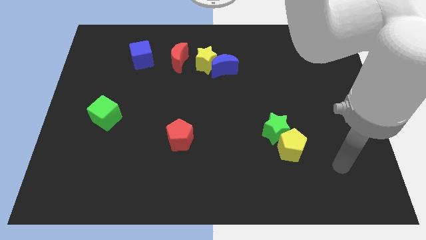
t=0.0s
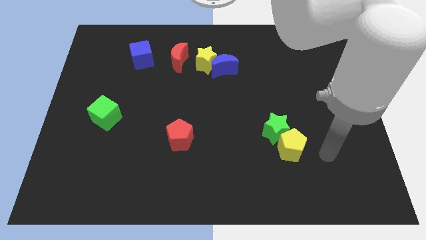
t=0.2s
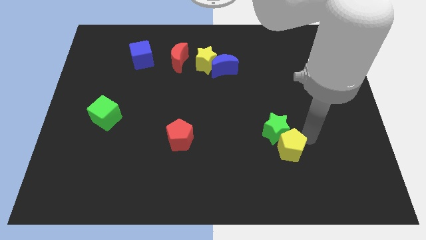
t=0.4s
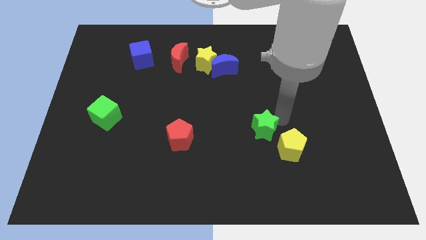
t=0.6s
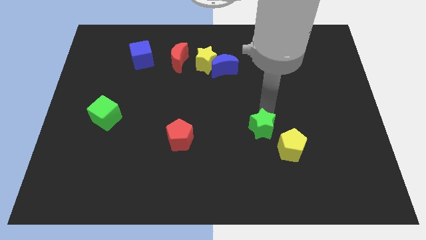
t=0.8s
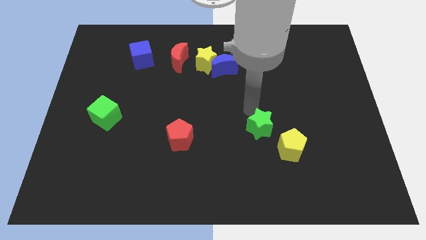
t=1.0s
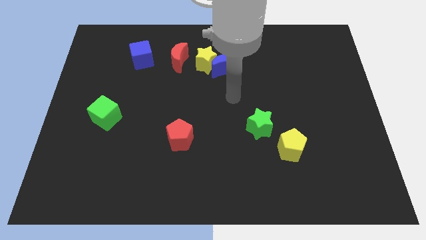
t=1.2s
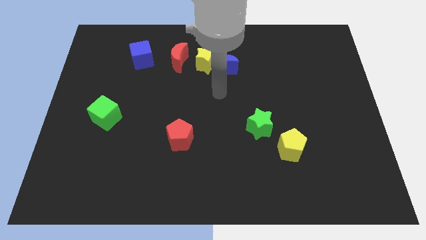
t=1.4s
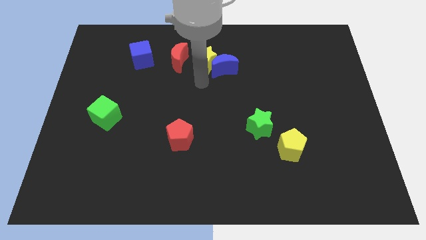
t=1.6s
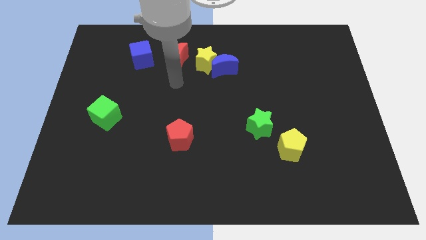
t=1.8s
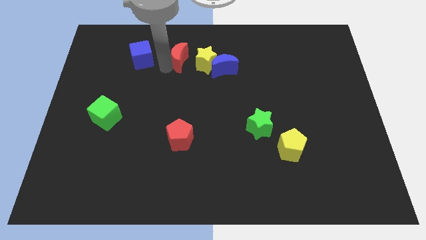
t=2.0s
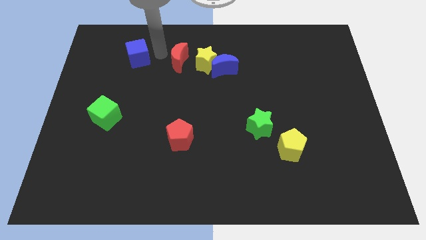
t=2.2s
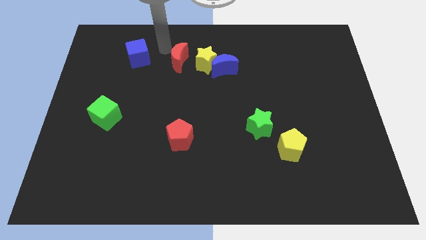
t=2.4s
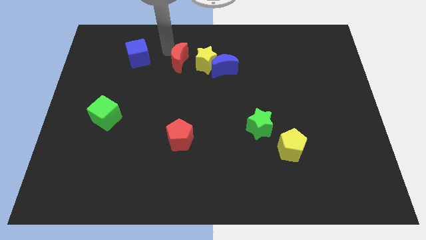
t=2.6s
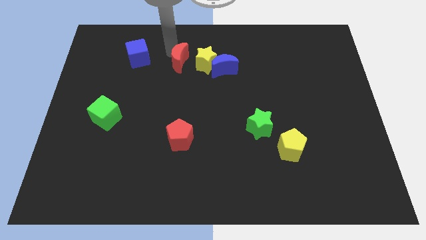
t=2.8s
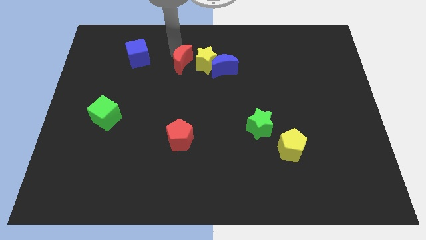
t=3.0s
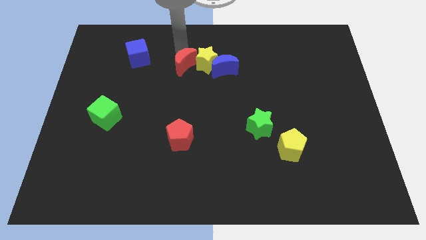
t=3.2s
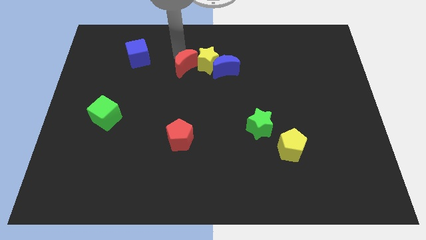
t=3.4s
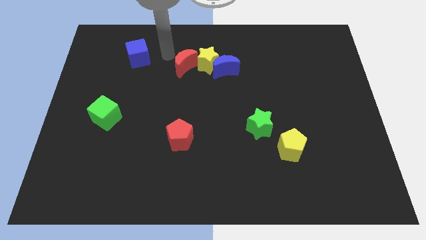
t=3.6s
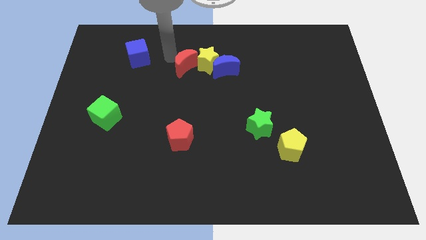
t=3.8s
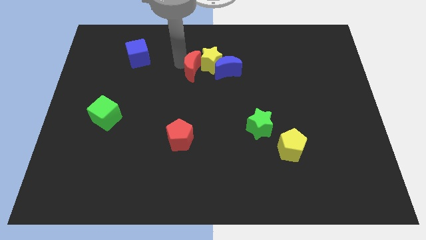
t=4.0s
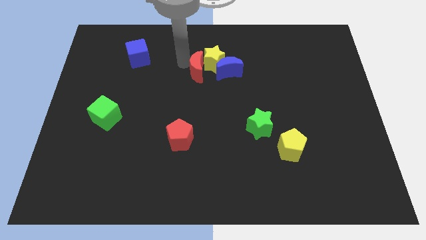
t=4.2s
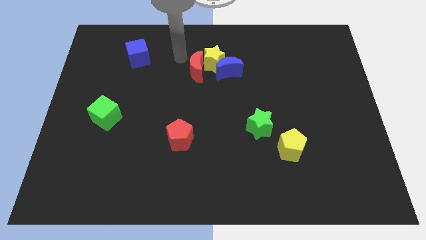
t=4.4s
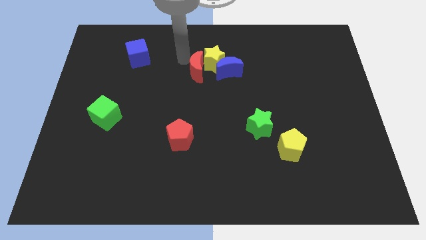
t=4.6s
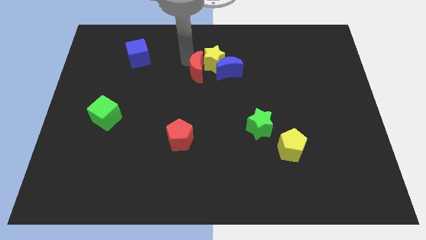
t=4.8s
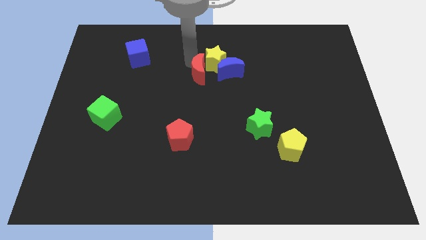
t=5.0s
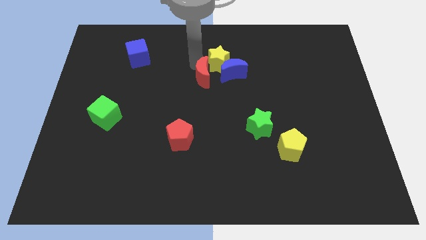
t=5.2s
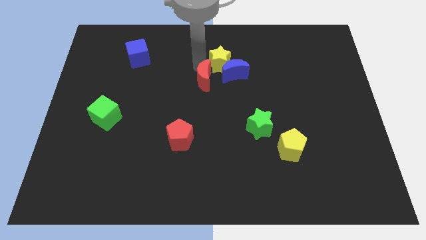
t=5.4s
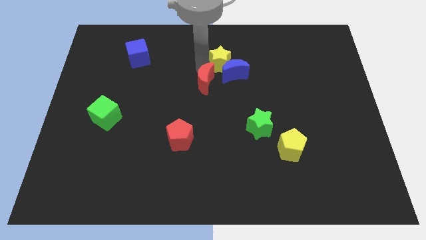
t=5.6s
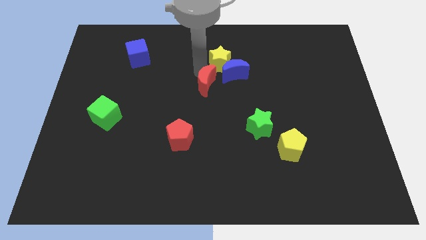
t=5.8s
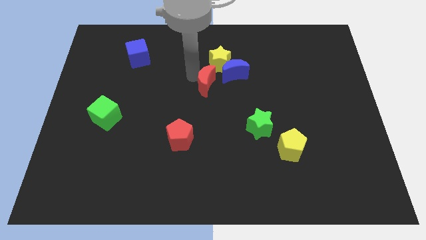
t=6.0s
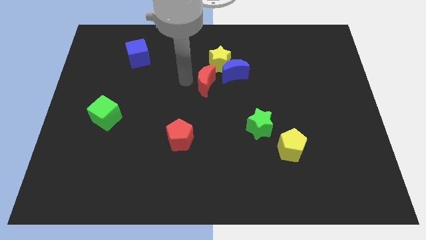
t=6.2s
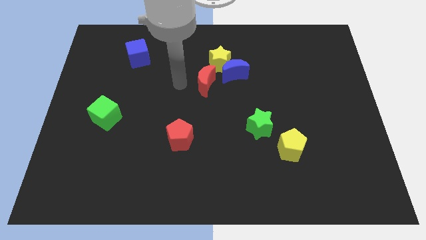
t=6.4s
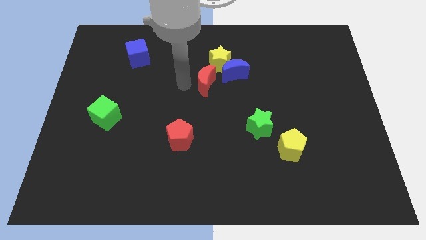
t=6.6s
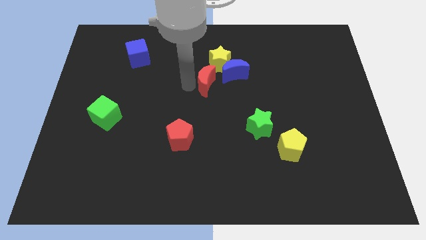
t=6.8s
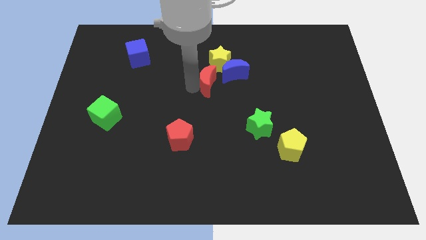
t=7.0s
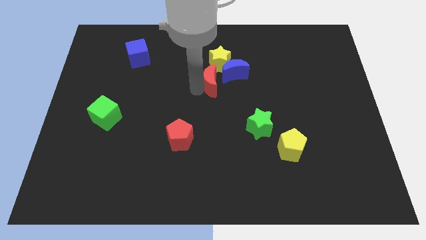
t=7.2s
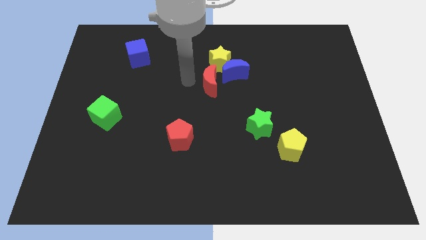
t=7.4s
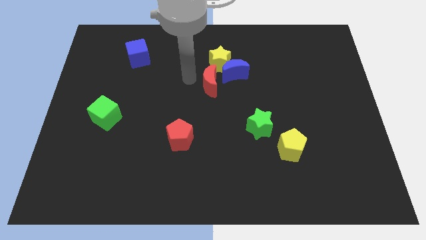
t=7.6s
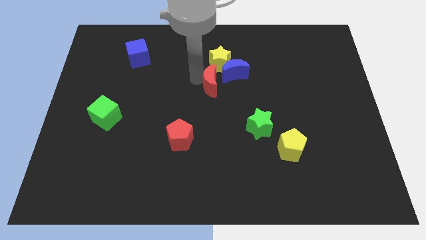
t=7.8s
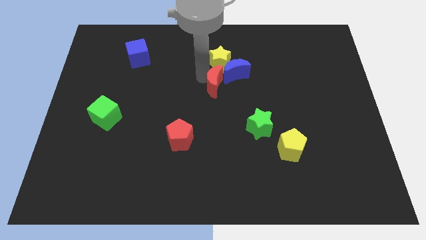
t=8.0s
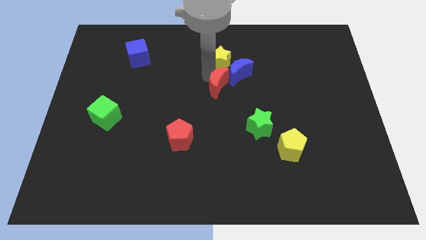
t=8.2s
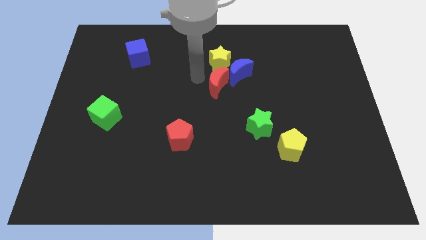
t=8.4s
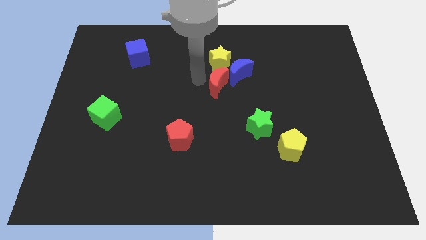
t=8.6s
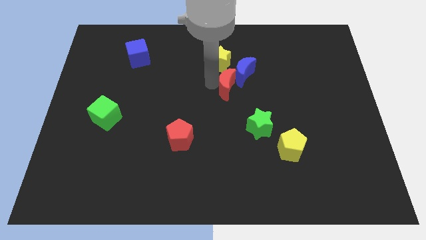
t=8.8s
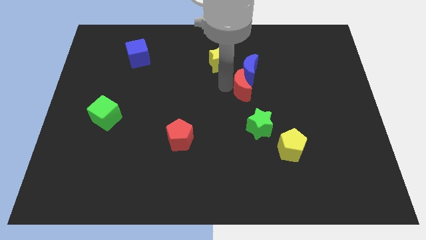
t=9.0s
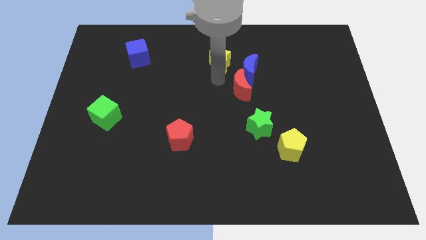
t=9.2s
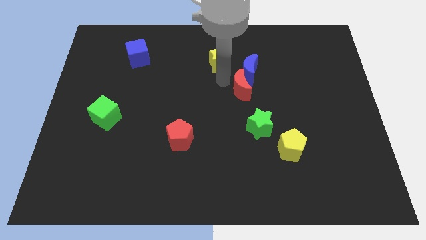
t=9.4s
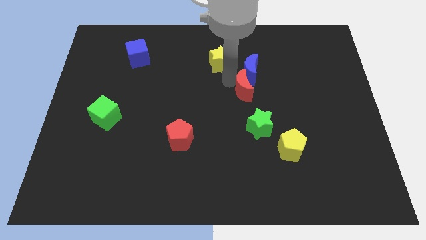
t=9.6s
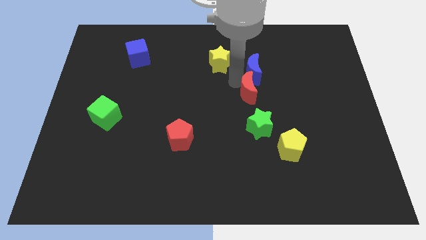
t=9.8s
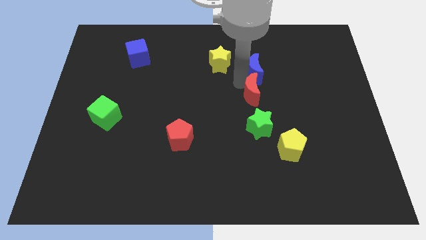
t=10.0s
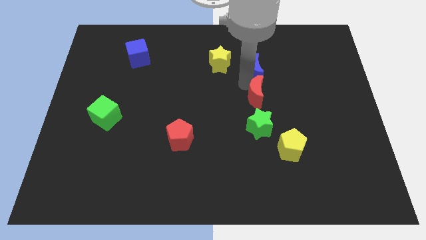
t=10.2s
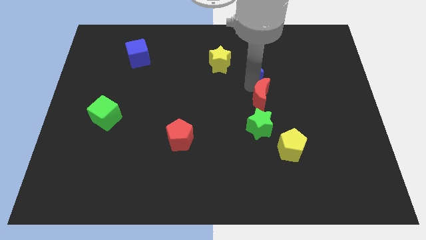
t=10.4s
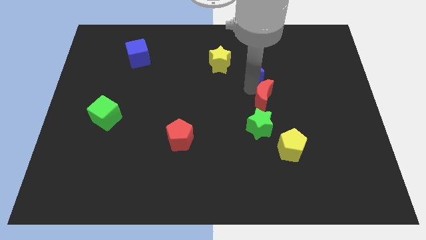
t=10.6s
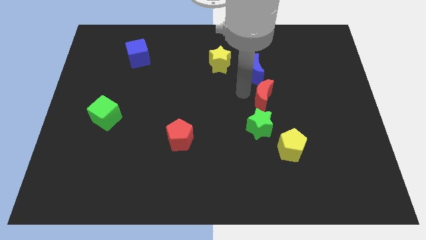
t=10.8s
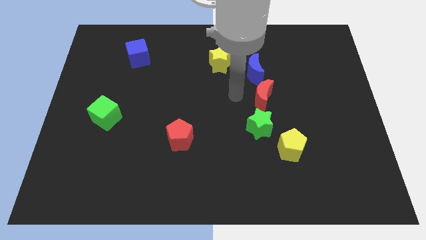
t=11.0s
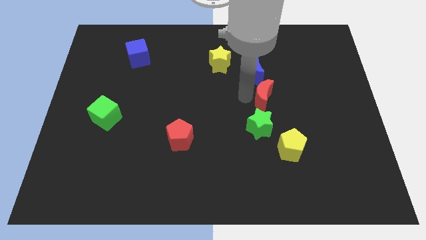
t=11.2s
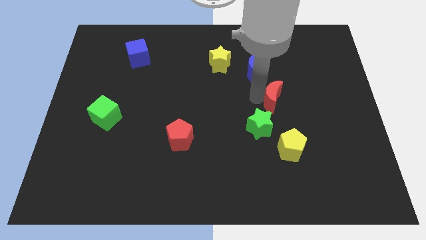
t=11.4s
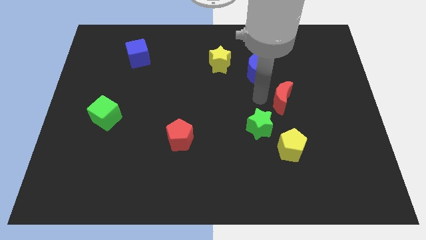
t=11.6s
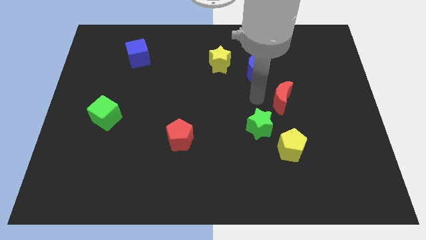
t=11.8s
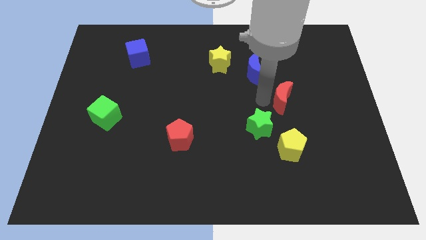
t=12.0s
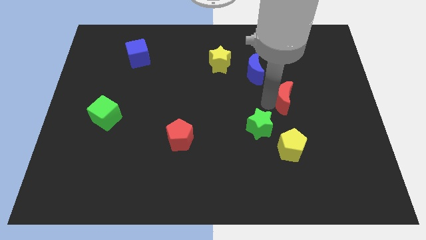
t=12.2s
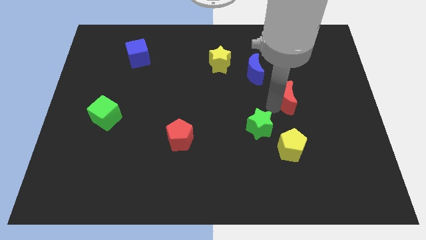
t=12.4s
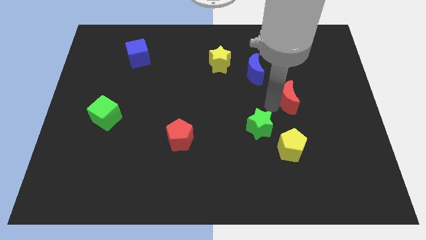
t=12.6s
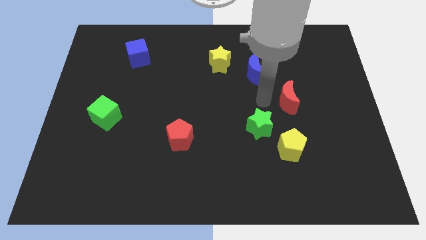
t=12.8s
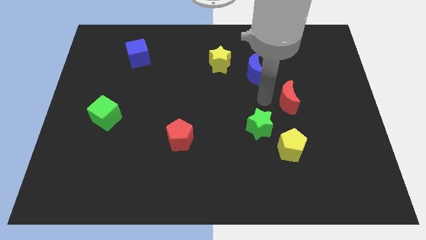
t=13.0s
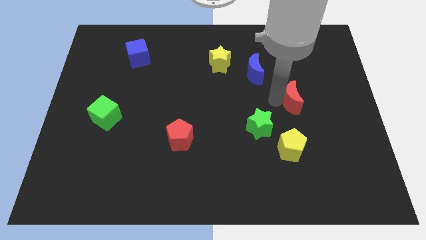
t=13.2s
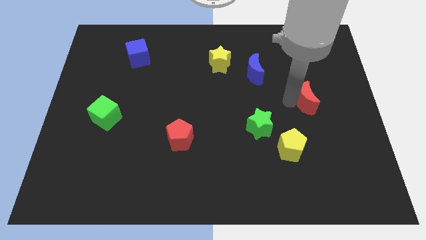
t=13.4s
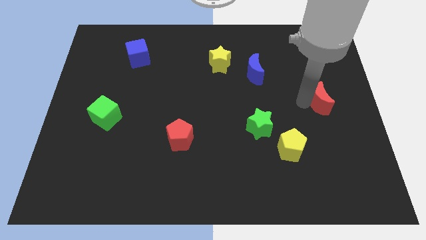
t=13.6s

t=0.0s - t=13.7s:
push the red moon to the center right
